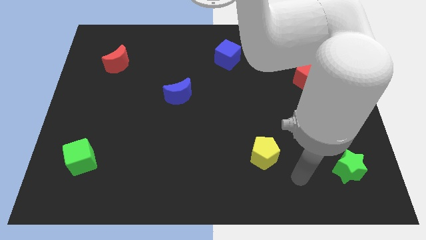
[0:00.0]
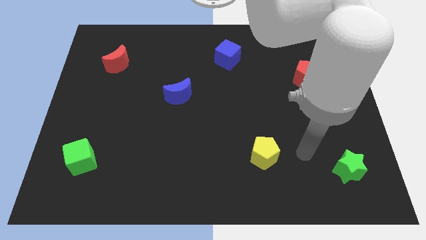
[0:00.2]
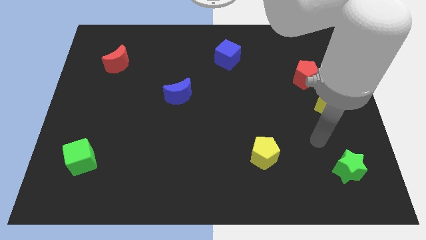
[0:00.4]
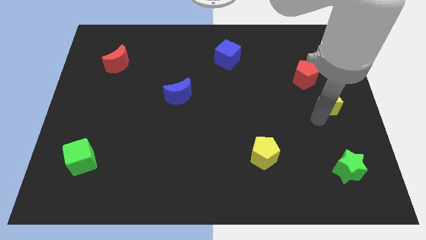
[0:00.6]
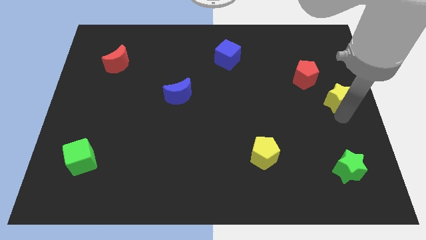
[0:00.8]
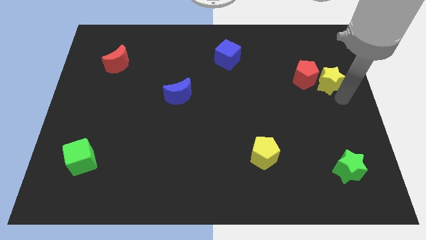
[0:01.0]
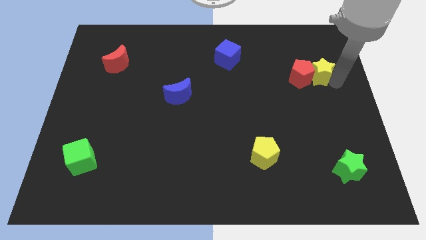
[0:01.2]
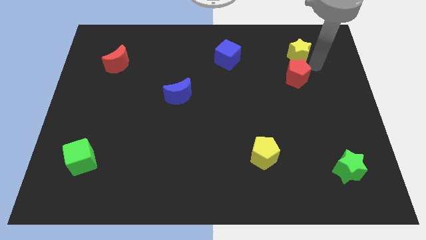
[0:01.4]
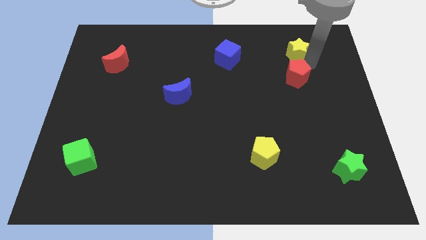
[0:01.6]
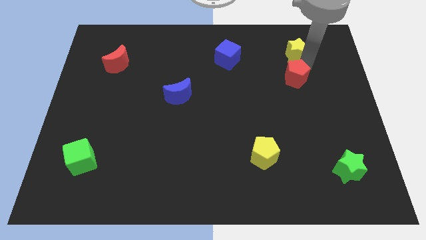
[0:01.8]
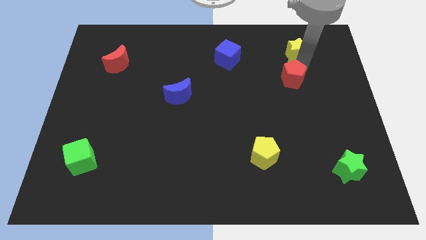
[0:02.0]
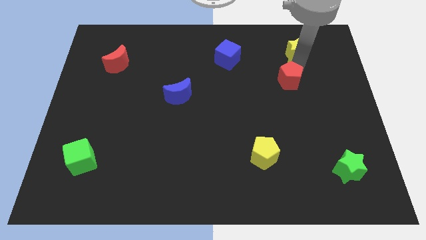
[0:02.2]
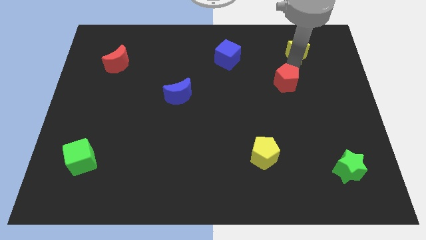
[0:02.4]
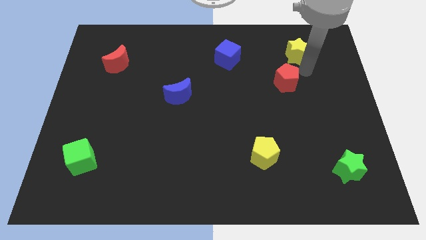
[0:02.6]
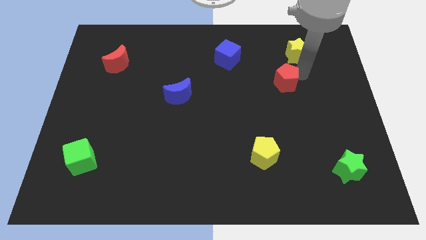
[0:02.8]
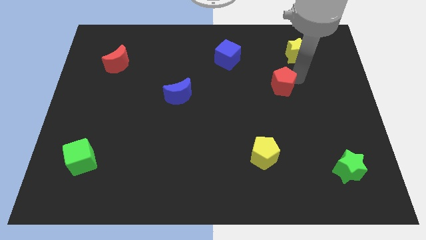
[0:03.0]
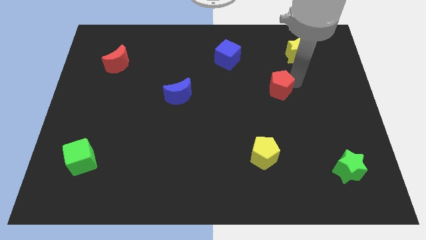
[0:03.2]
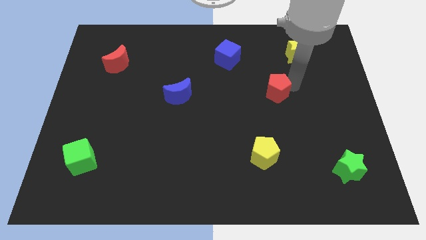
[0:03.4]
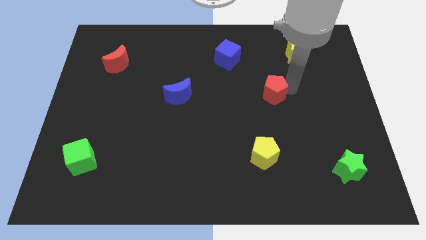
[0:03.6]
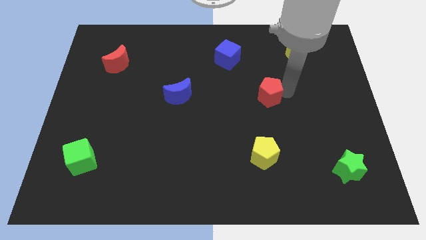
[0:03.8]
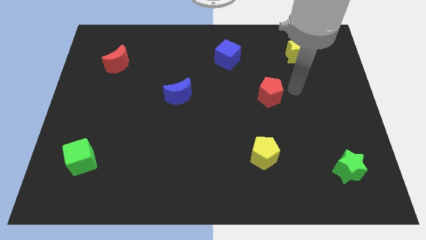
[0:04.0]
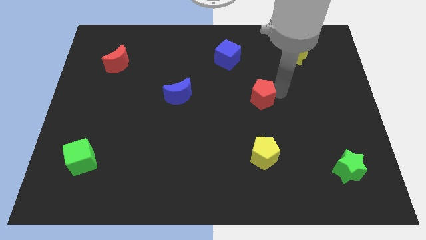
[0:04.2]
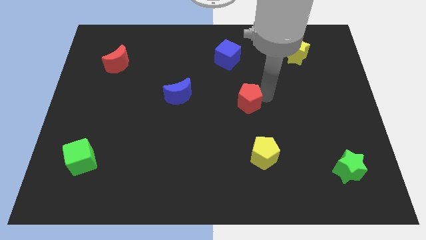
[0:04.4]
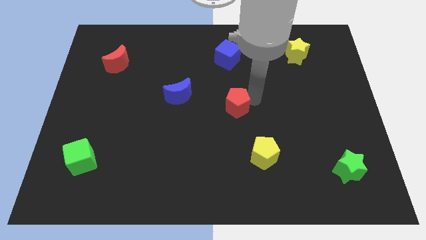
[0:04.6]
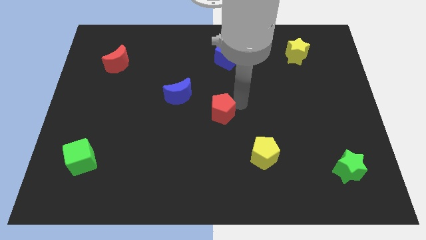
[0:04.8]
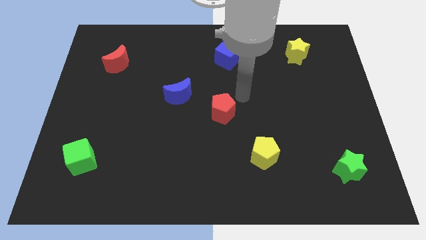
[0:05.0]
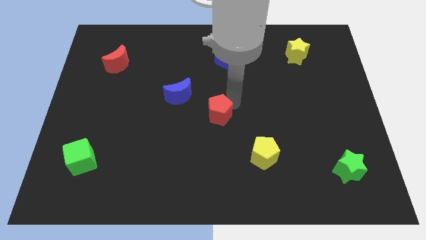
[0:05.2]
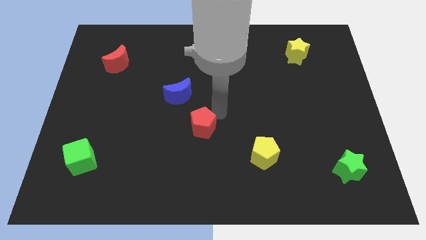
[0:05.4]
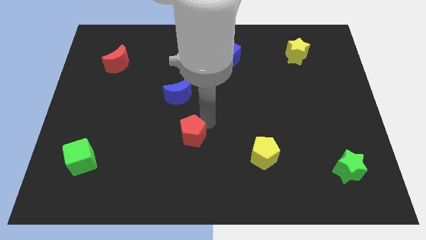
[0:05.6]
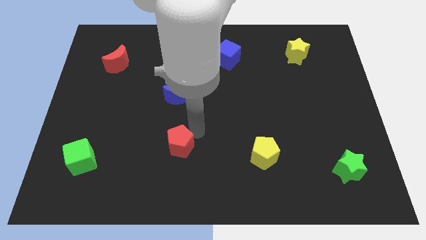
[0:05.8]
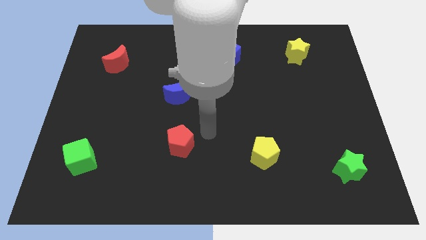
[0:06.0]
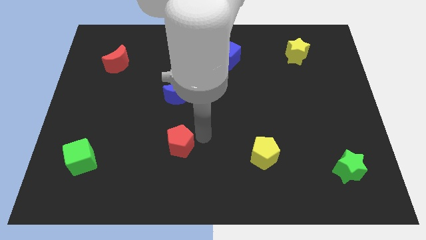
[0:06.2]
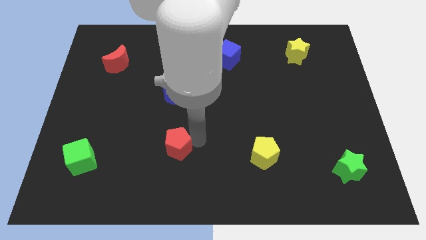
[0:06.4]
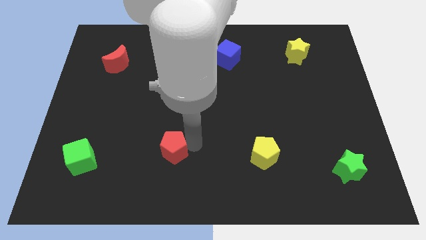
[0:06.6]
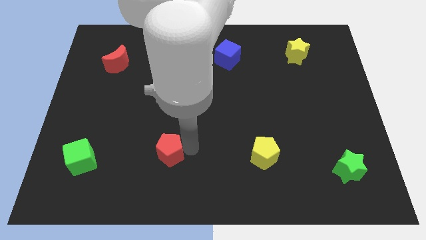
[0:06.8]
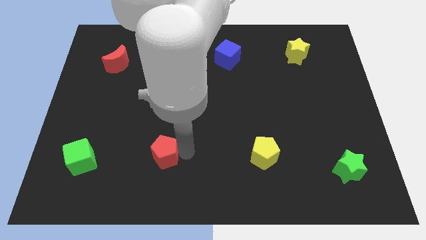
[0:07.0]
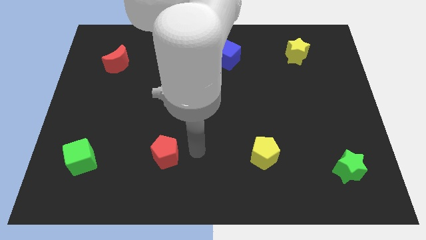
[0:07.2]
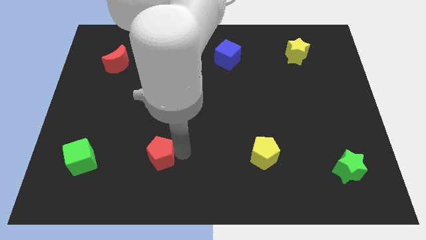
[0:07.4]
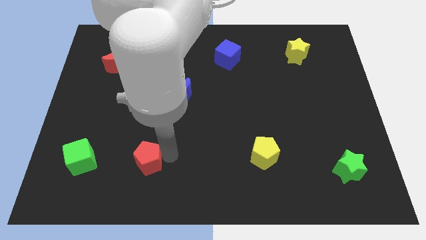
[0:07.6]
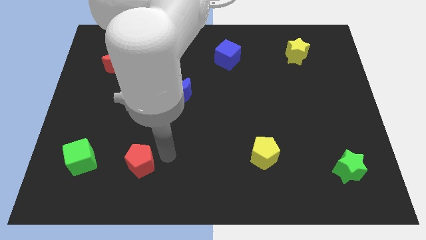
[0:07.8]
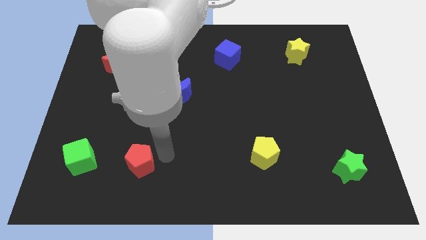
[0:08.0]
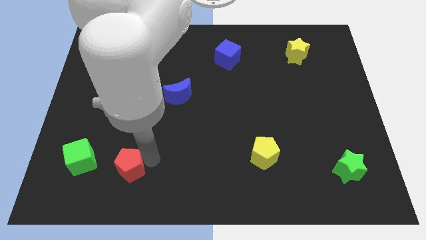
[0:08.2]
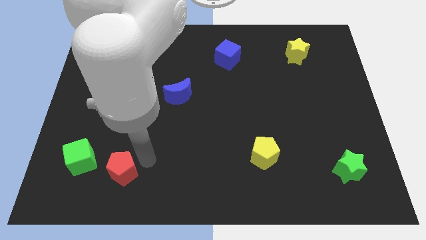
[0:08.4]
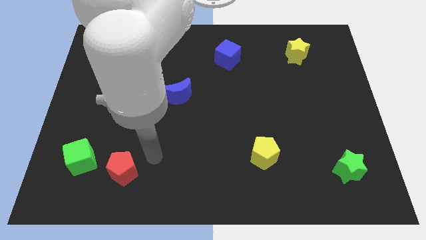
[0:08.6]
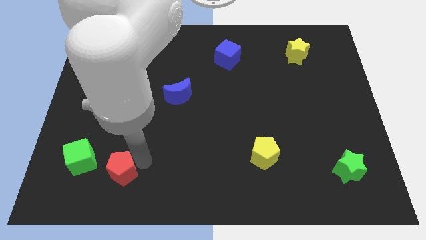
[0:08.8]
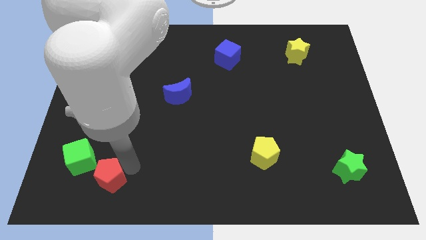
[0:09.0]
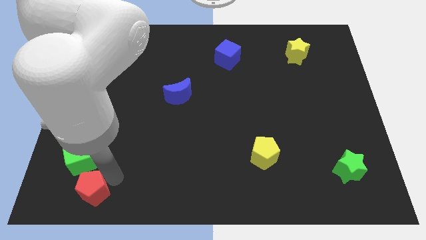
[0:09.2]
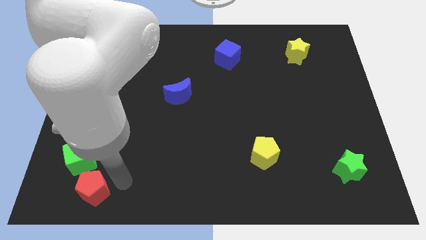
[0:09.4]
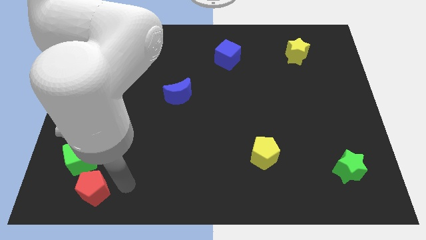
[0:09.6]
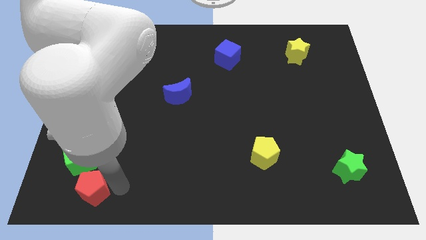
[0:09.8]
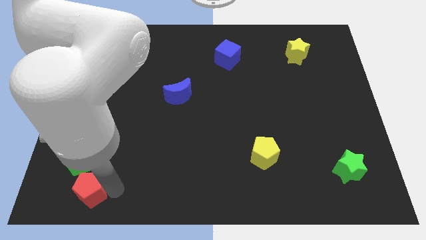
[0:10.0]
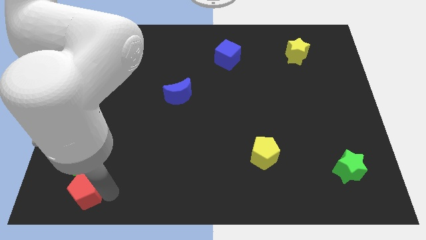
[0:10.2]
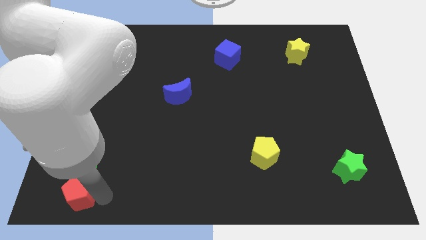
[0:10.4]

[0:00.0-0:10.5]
put the red pentagon to the bottom left

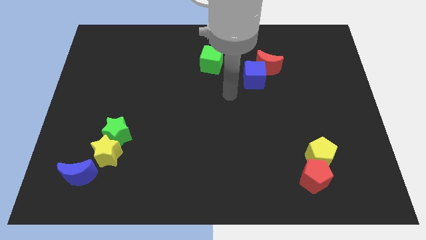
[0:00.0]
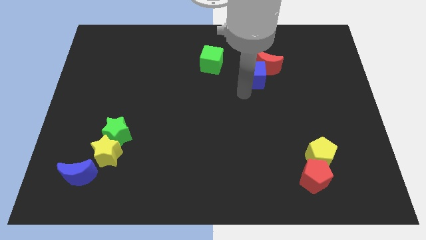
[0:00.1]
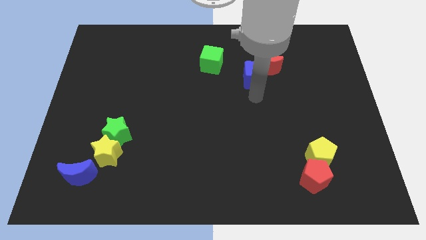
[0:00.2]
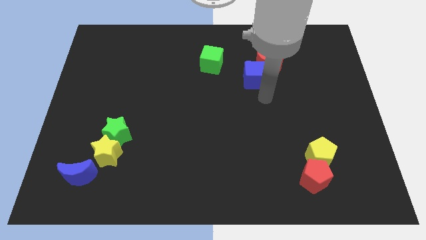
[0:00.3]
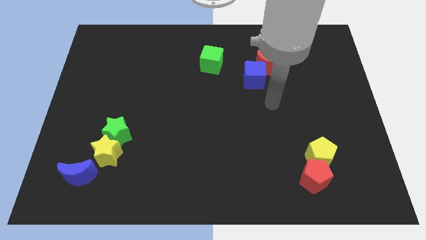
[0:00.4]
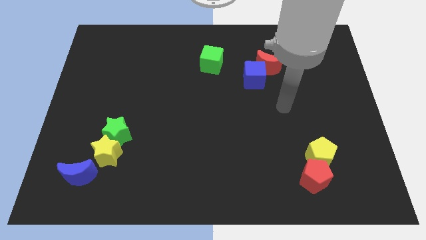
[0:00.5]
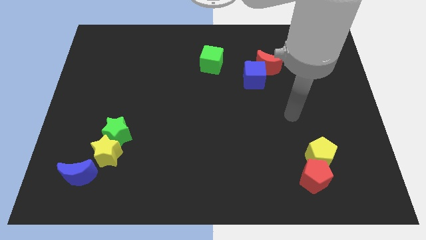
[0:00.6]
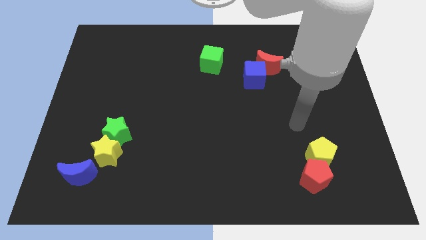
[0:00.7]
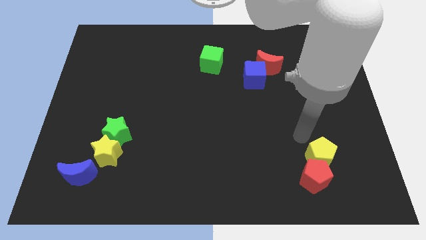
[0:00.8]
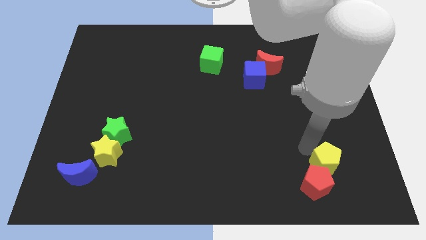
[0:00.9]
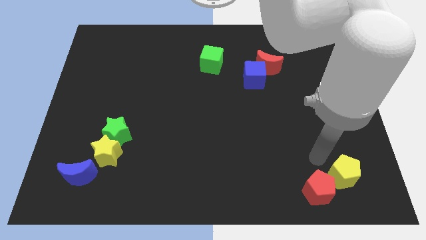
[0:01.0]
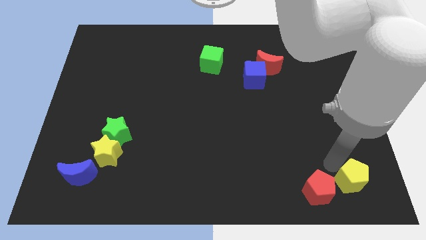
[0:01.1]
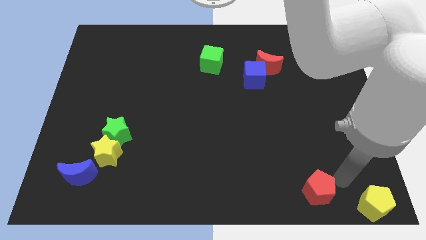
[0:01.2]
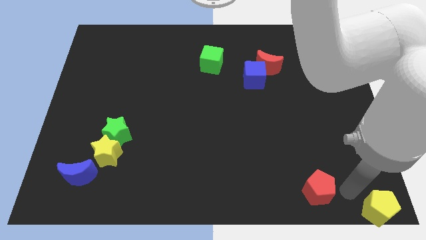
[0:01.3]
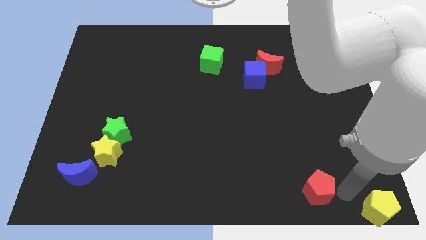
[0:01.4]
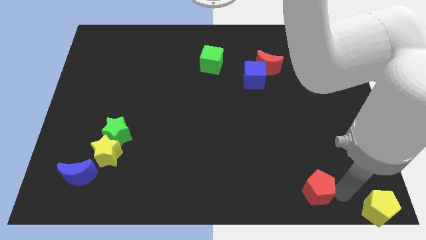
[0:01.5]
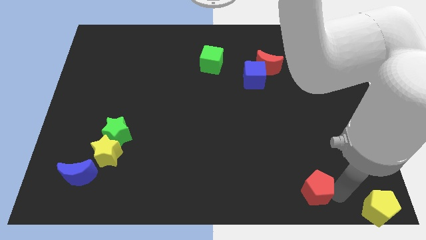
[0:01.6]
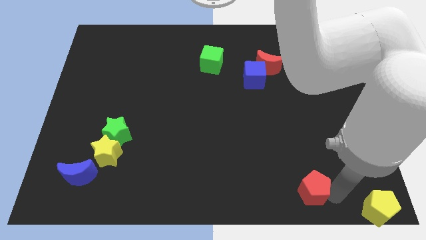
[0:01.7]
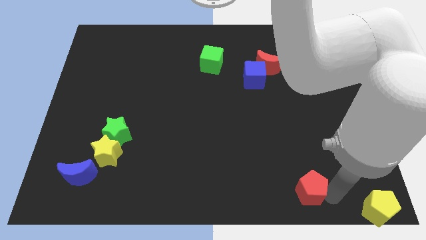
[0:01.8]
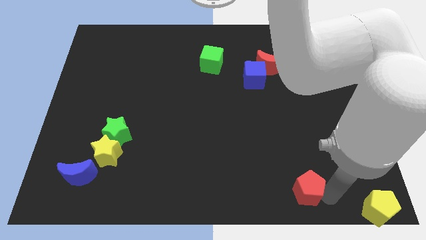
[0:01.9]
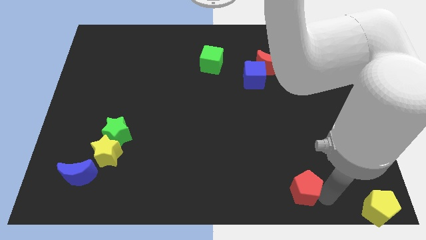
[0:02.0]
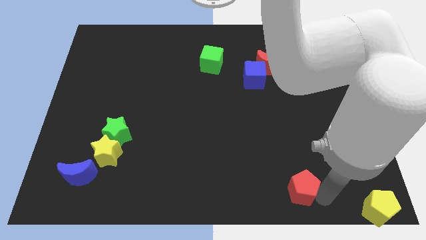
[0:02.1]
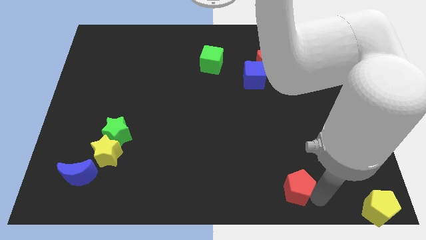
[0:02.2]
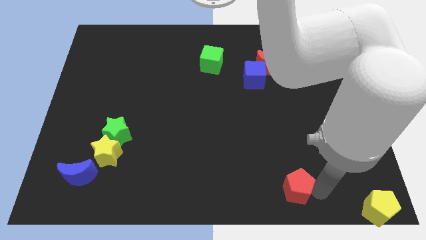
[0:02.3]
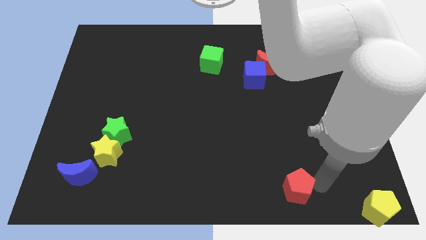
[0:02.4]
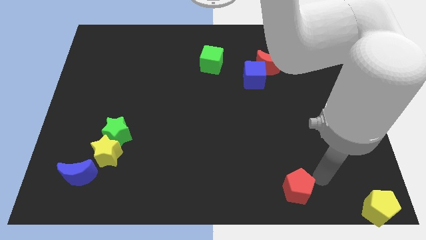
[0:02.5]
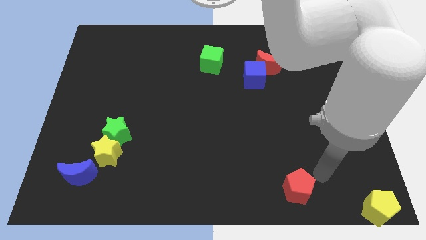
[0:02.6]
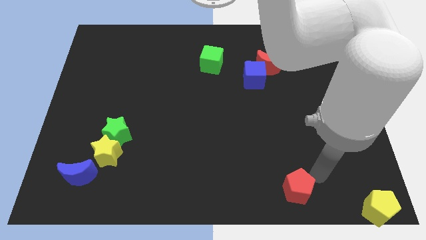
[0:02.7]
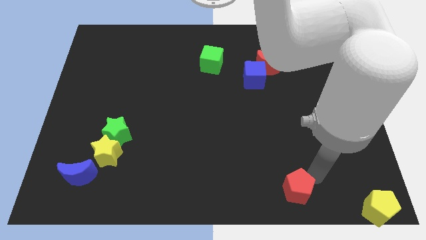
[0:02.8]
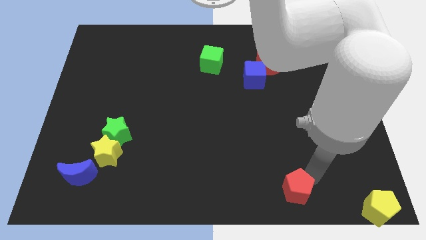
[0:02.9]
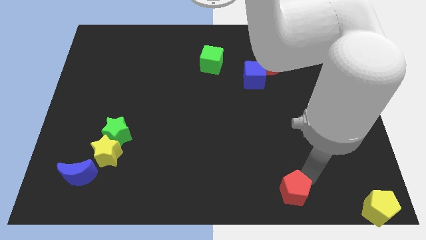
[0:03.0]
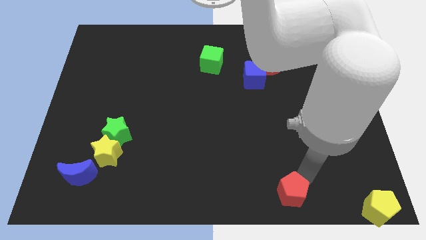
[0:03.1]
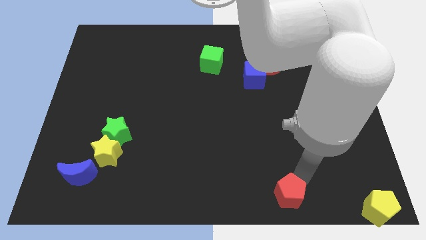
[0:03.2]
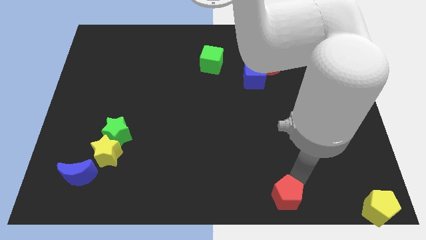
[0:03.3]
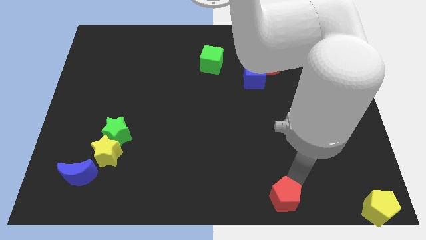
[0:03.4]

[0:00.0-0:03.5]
put the red pentagon to the bottom
